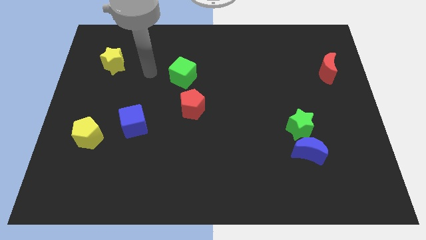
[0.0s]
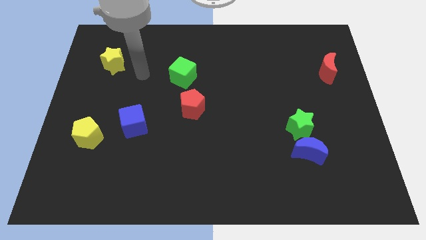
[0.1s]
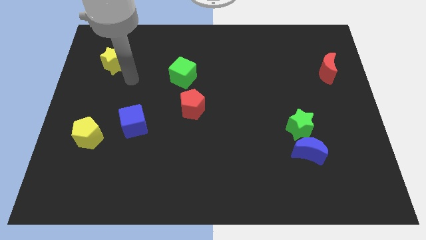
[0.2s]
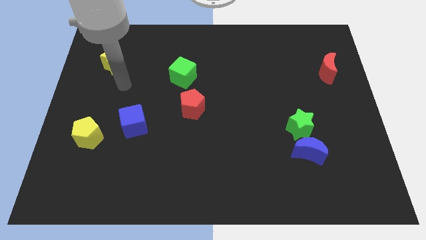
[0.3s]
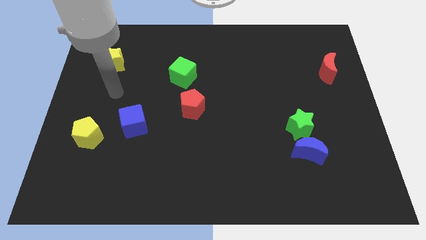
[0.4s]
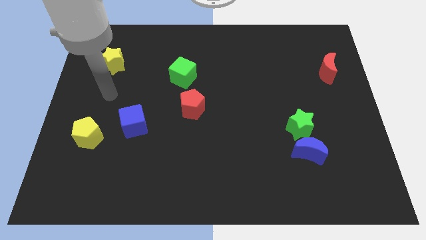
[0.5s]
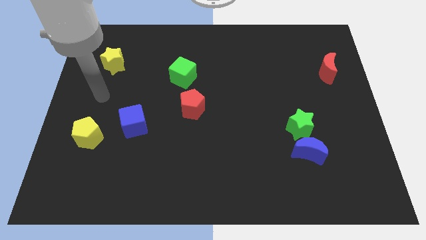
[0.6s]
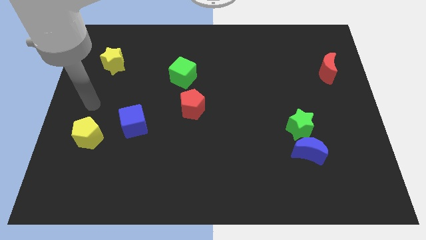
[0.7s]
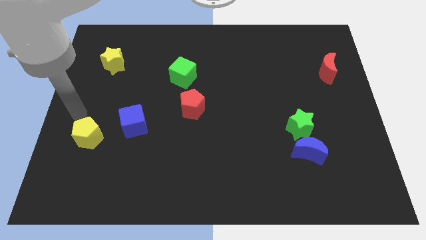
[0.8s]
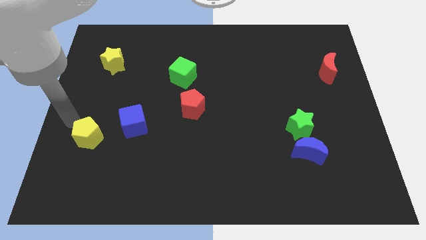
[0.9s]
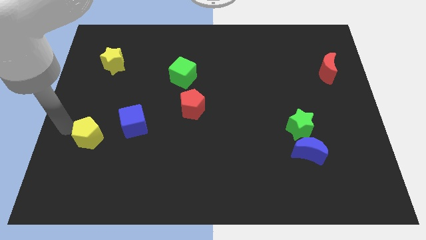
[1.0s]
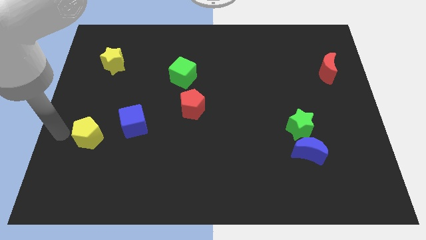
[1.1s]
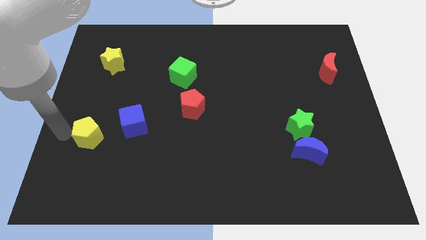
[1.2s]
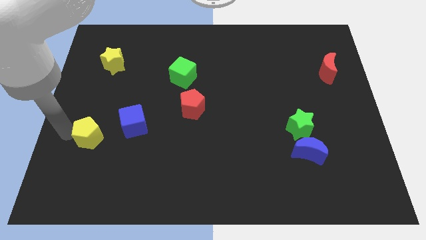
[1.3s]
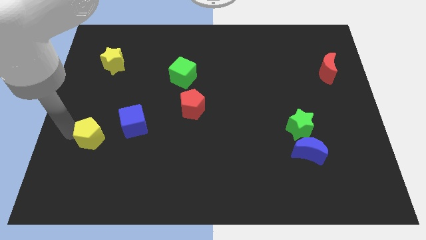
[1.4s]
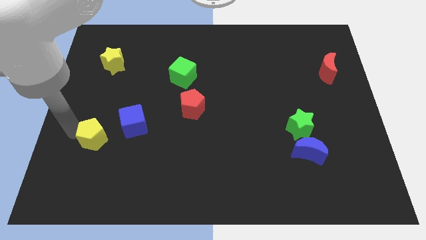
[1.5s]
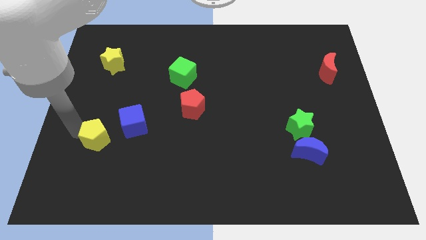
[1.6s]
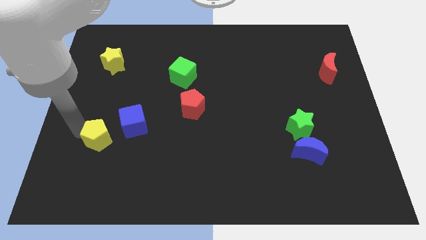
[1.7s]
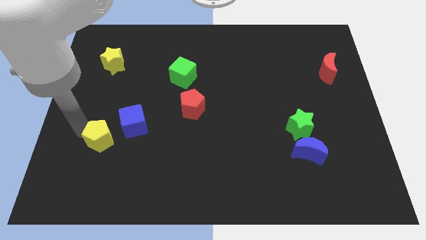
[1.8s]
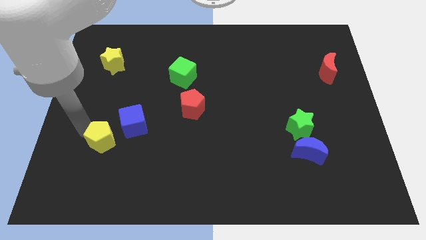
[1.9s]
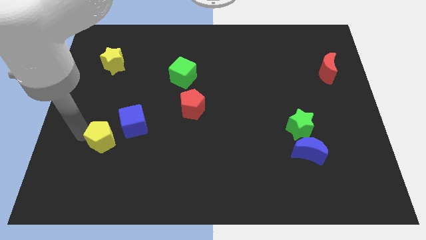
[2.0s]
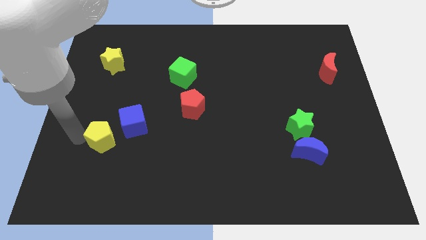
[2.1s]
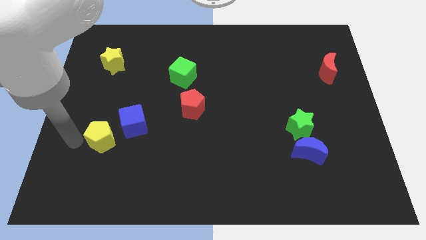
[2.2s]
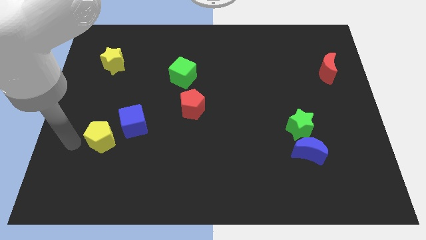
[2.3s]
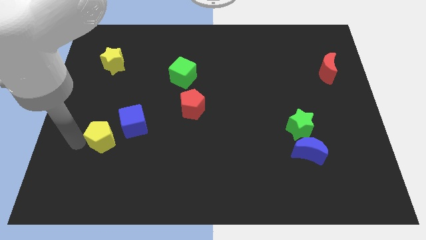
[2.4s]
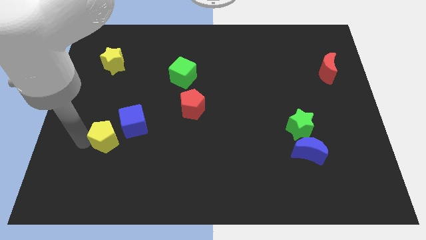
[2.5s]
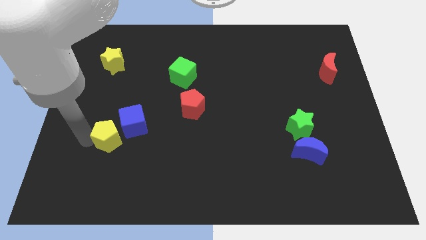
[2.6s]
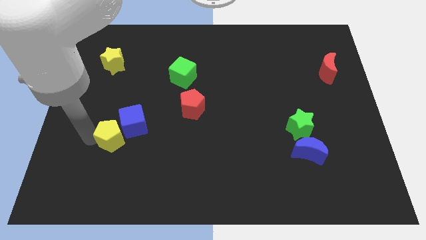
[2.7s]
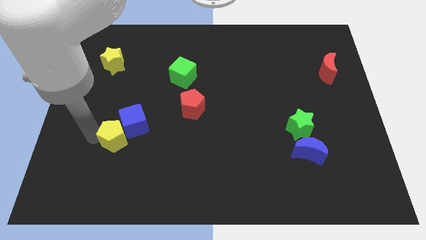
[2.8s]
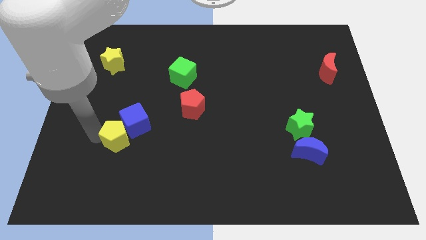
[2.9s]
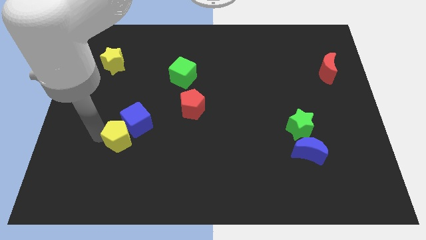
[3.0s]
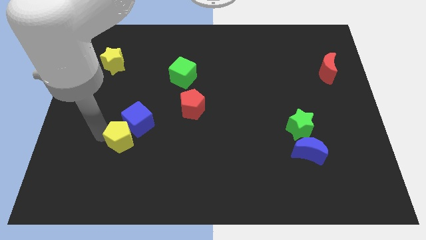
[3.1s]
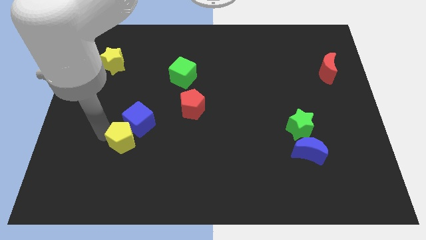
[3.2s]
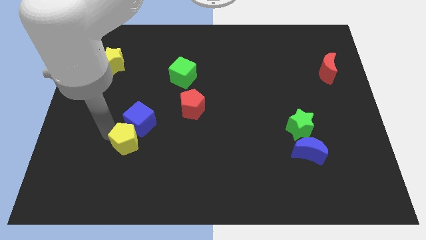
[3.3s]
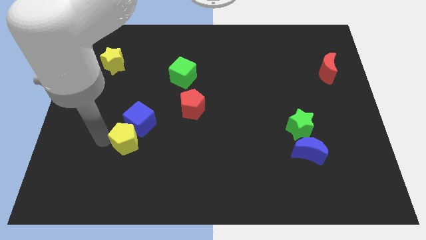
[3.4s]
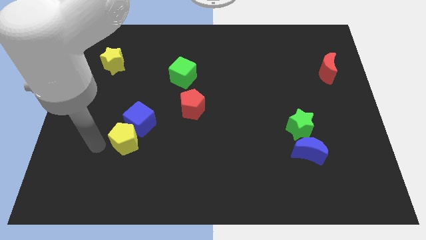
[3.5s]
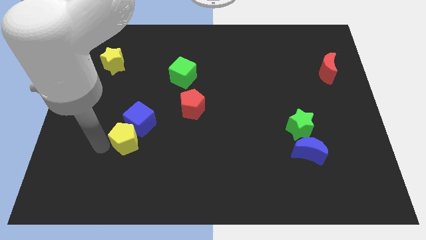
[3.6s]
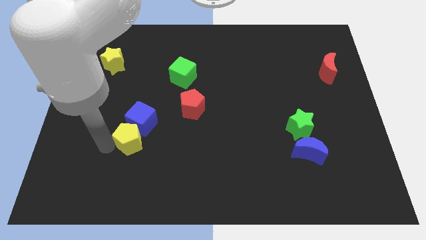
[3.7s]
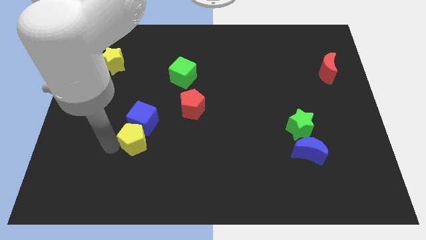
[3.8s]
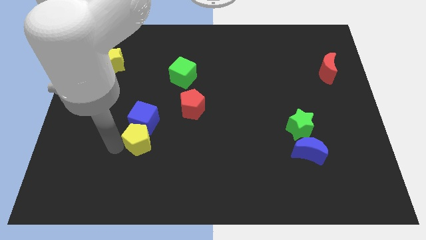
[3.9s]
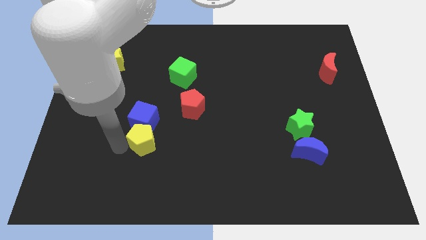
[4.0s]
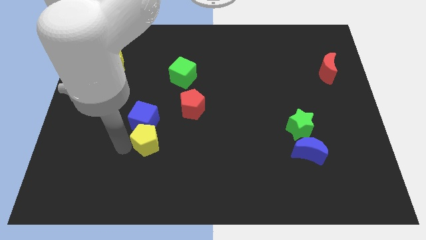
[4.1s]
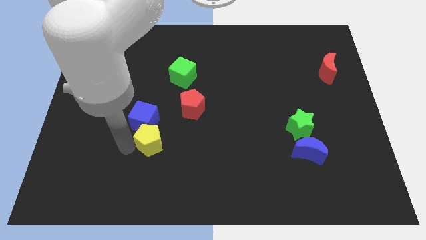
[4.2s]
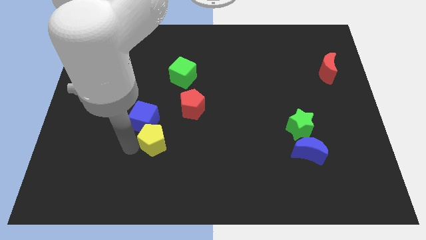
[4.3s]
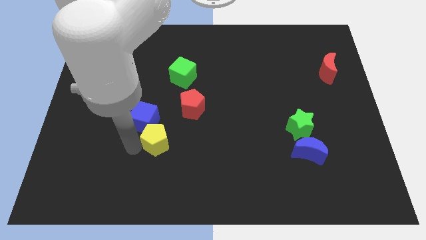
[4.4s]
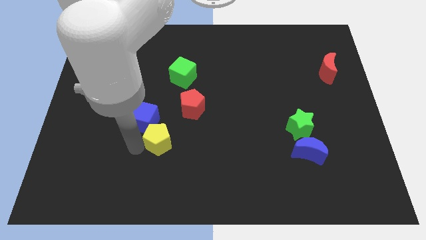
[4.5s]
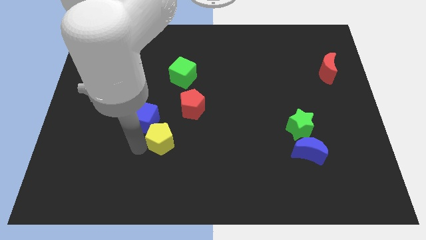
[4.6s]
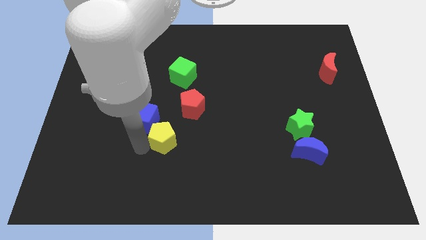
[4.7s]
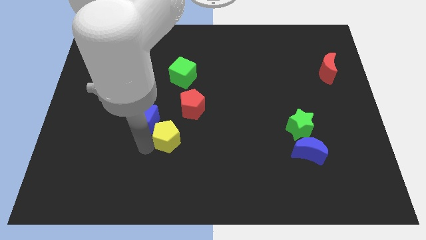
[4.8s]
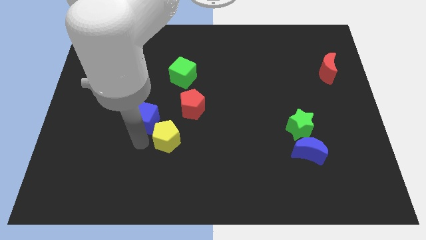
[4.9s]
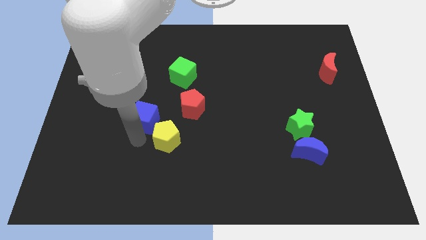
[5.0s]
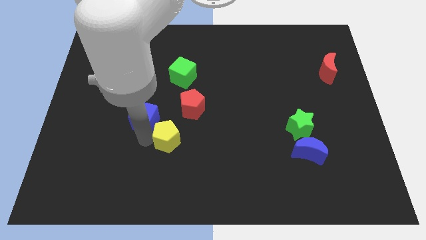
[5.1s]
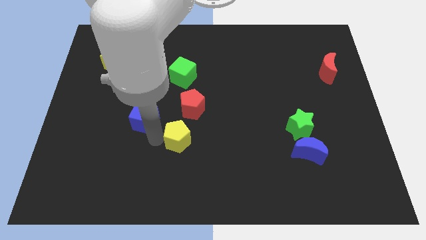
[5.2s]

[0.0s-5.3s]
slide the yellow pentagon right

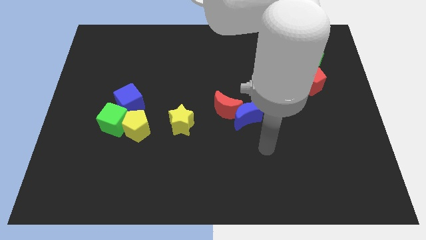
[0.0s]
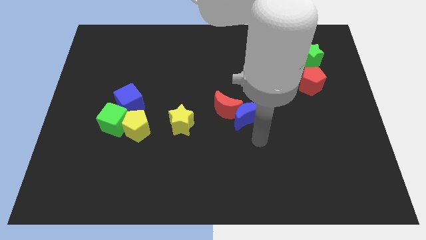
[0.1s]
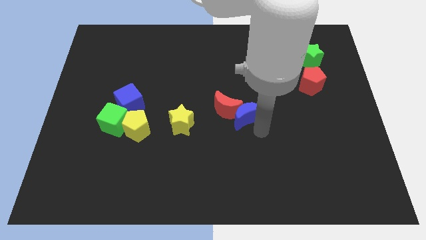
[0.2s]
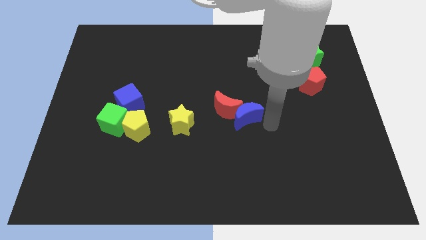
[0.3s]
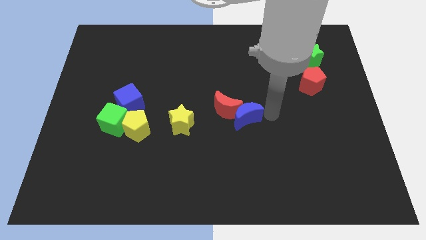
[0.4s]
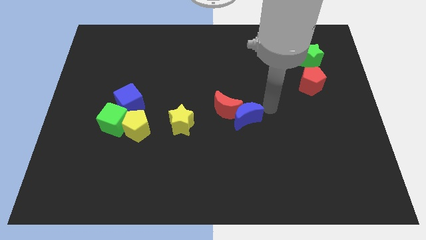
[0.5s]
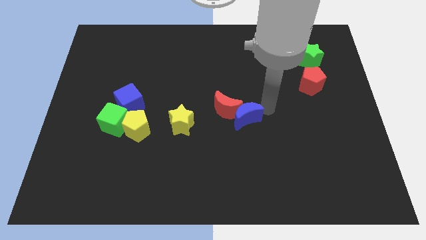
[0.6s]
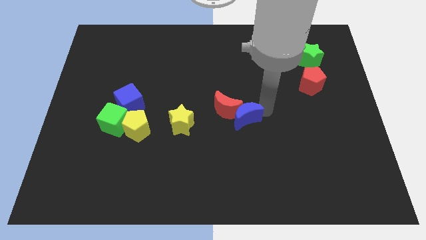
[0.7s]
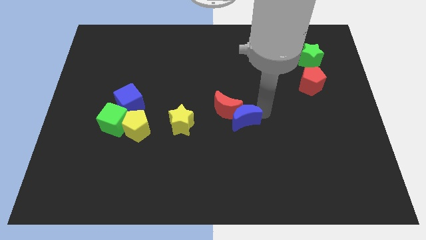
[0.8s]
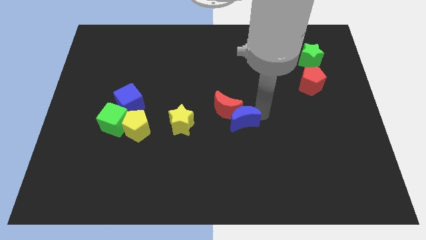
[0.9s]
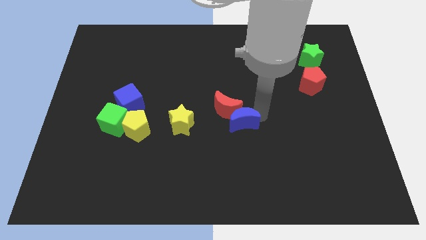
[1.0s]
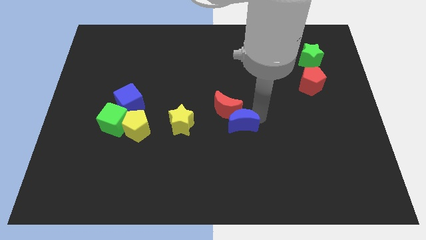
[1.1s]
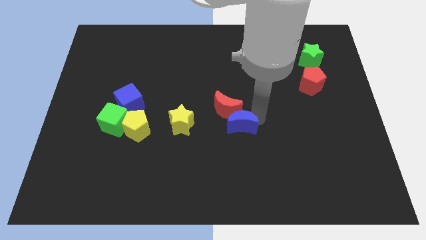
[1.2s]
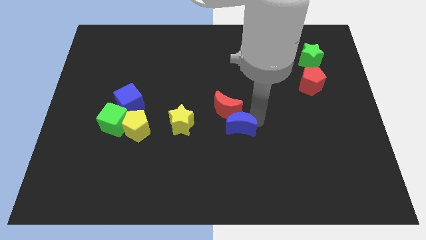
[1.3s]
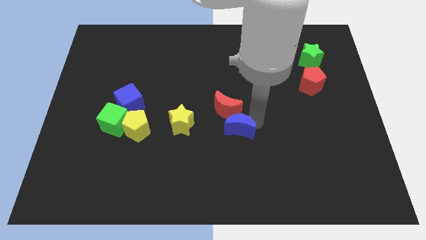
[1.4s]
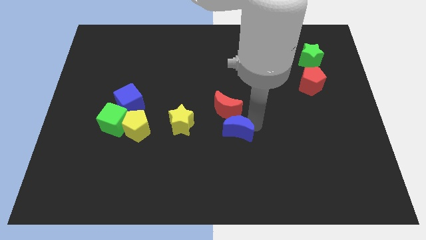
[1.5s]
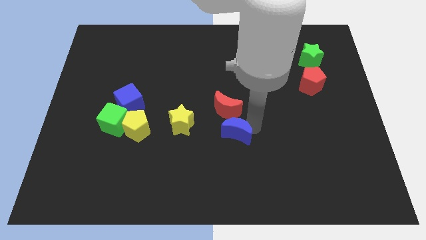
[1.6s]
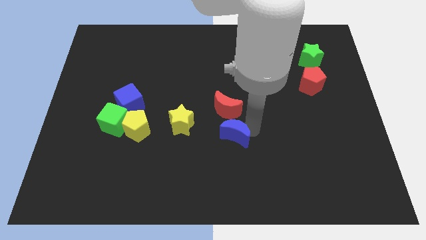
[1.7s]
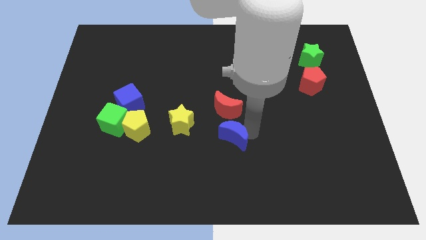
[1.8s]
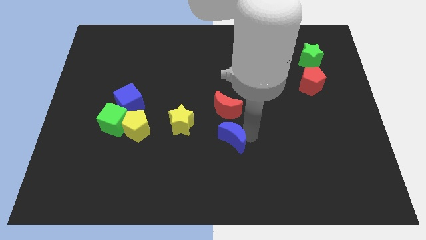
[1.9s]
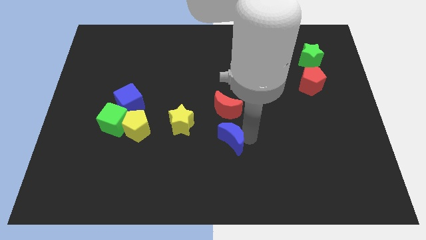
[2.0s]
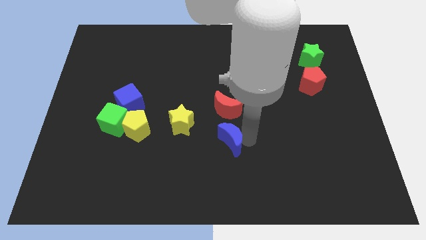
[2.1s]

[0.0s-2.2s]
slide the blue moon somewhat downwards and then to the left

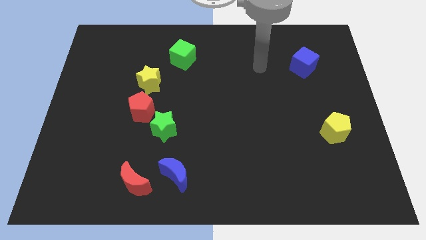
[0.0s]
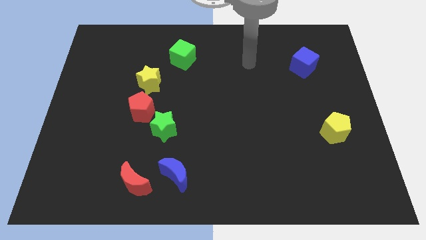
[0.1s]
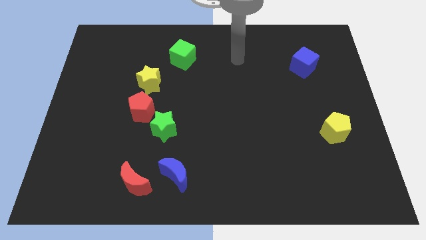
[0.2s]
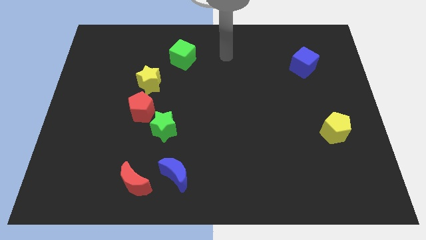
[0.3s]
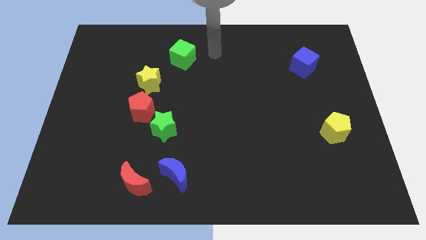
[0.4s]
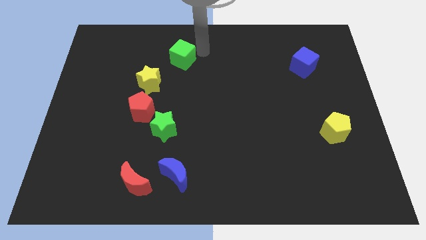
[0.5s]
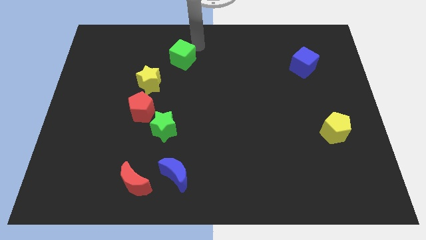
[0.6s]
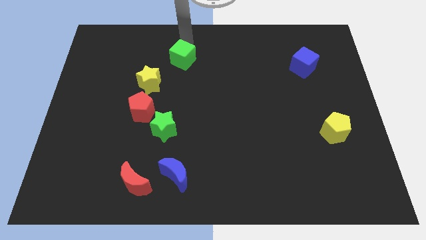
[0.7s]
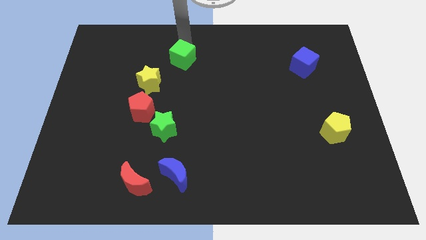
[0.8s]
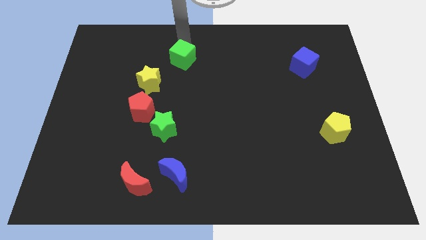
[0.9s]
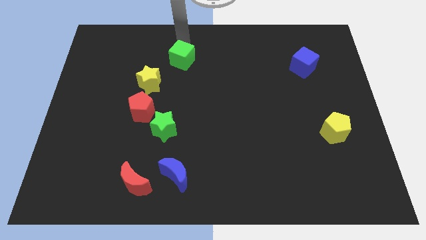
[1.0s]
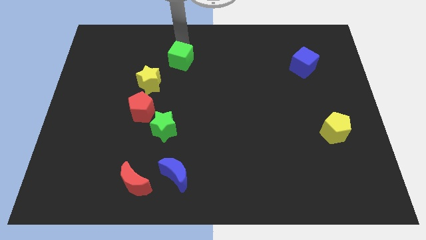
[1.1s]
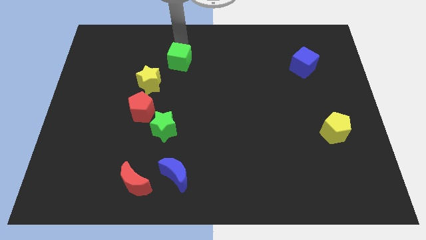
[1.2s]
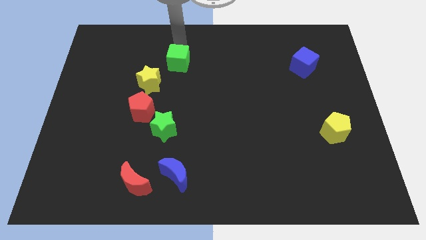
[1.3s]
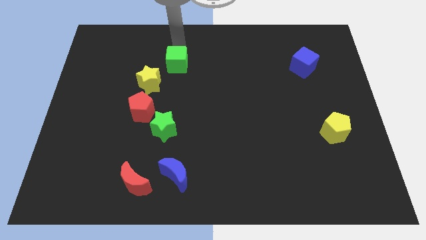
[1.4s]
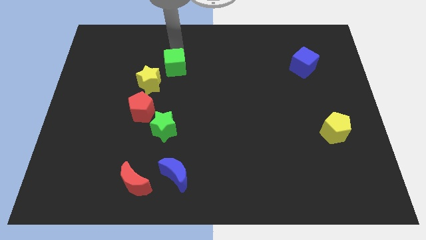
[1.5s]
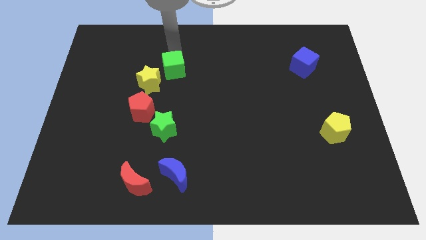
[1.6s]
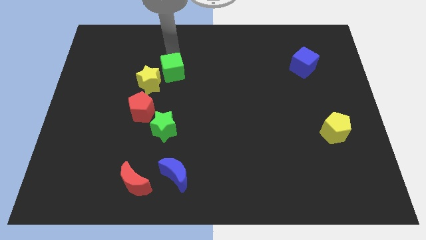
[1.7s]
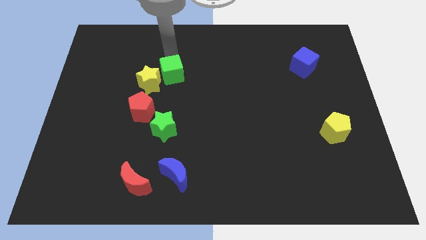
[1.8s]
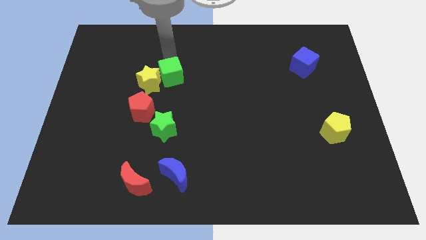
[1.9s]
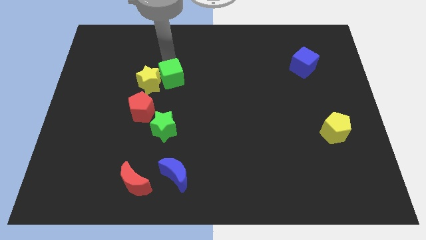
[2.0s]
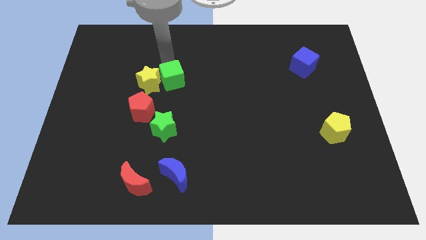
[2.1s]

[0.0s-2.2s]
push the green cube downwards a little
